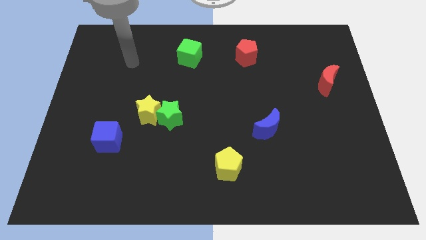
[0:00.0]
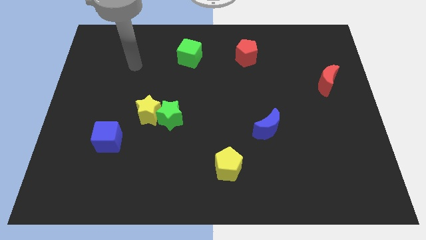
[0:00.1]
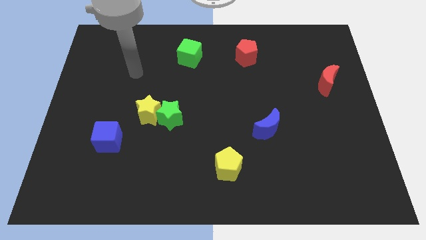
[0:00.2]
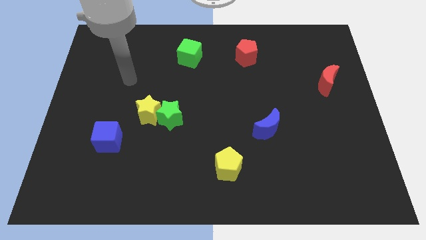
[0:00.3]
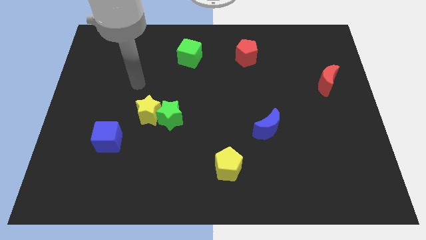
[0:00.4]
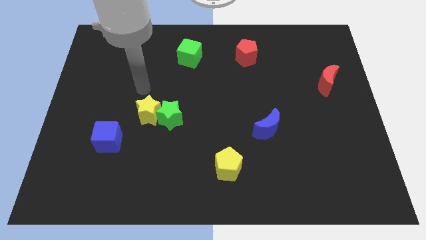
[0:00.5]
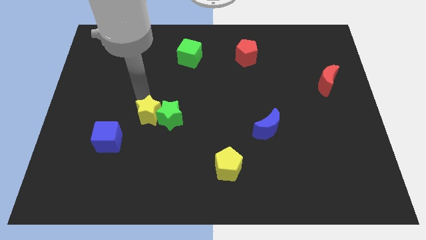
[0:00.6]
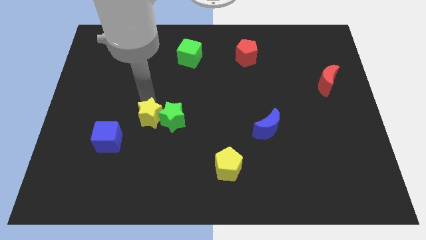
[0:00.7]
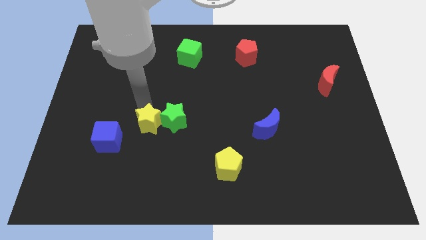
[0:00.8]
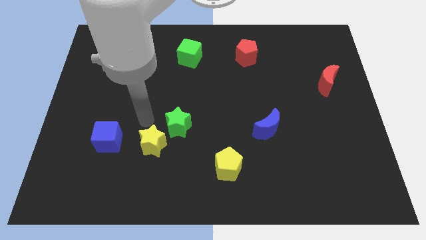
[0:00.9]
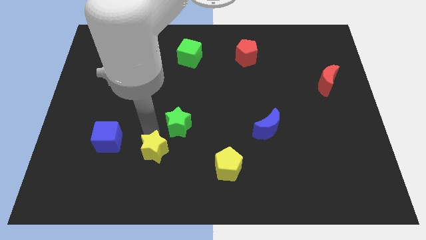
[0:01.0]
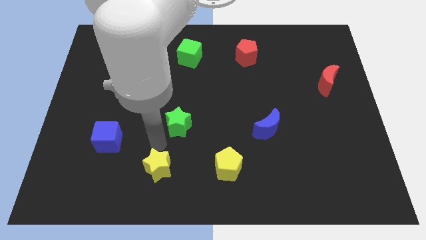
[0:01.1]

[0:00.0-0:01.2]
move the green star away from the yellow star

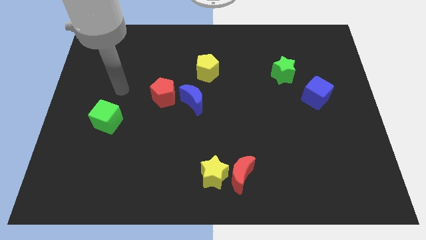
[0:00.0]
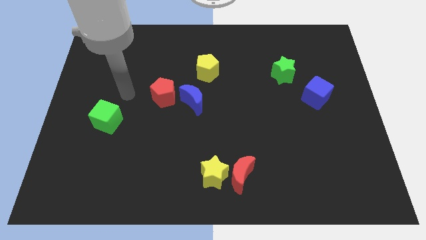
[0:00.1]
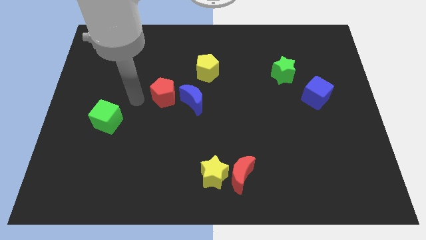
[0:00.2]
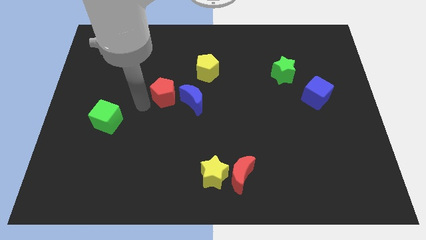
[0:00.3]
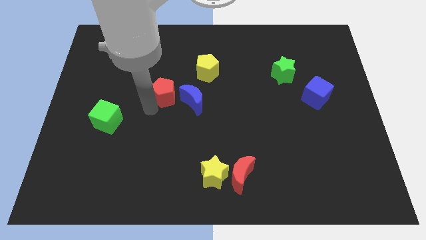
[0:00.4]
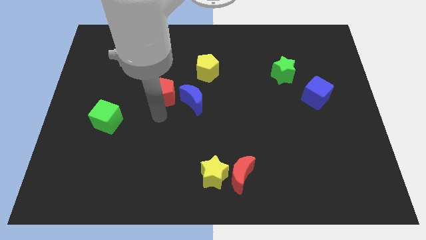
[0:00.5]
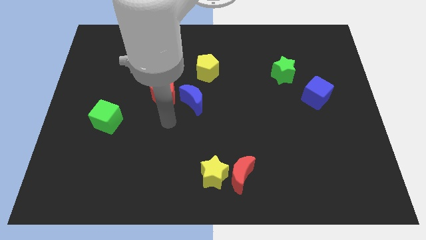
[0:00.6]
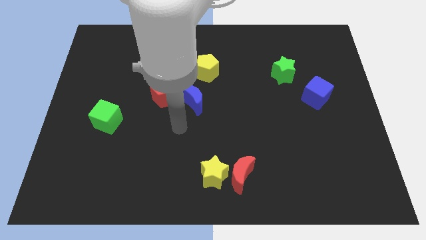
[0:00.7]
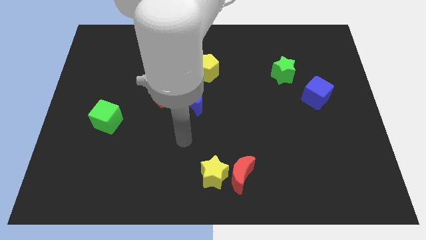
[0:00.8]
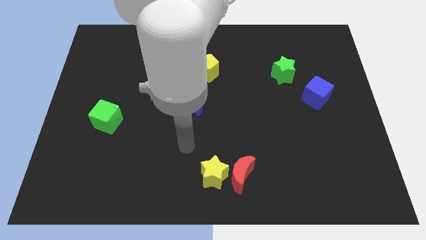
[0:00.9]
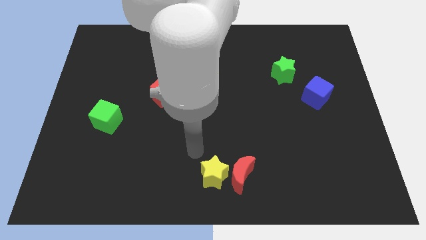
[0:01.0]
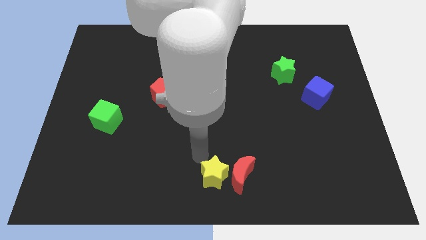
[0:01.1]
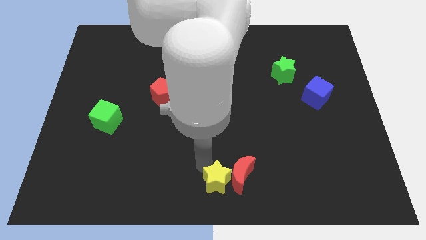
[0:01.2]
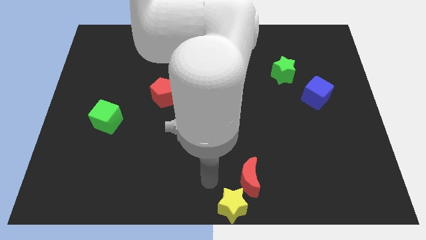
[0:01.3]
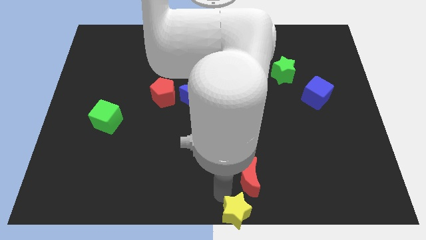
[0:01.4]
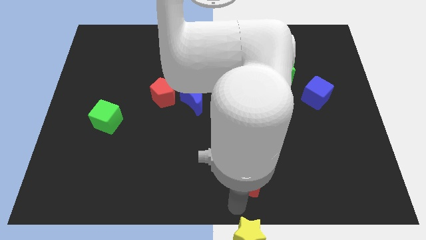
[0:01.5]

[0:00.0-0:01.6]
pull the red moon apart from the yellow star

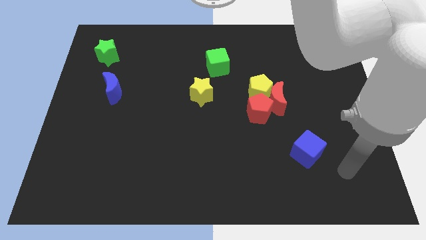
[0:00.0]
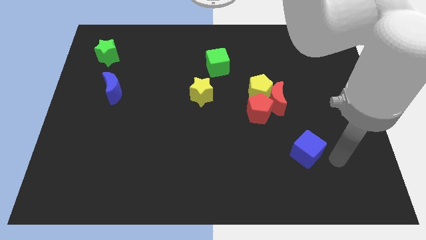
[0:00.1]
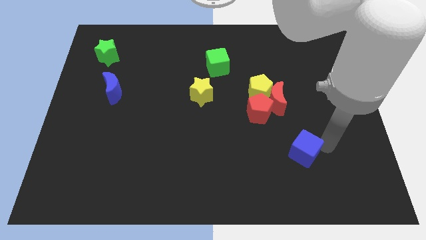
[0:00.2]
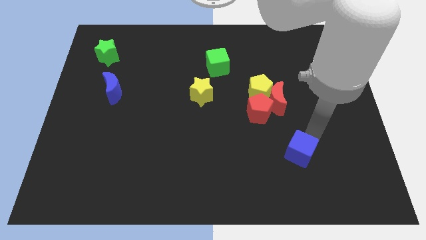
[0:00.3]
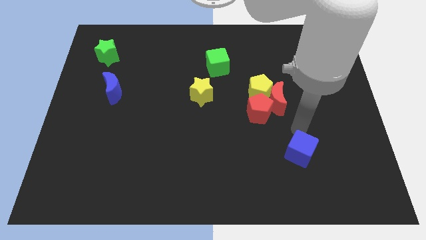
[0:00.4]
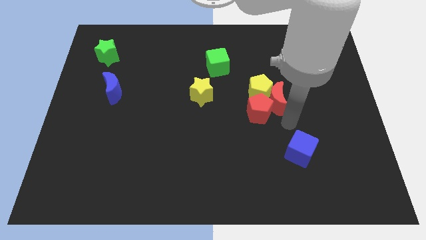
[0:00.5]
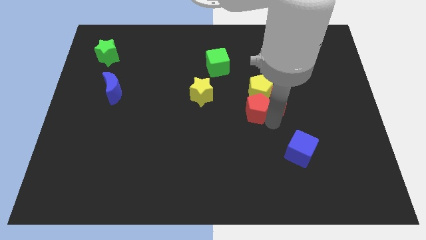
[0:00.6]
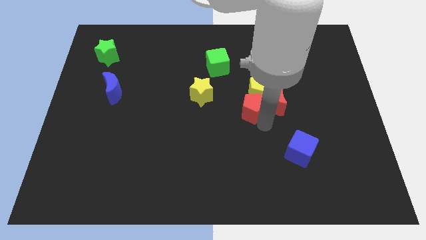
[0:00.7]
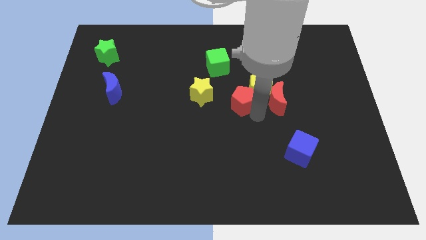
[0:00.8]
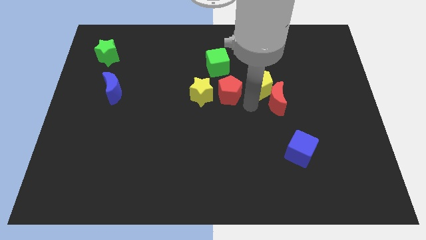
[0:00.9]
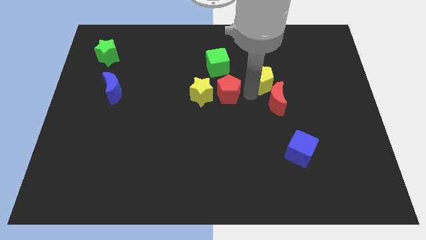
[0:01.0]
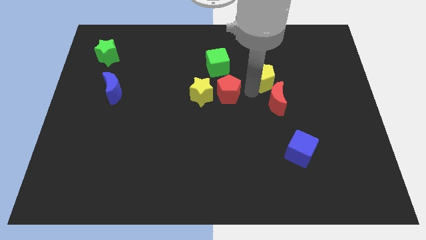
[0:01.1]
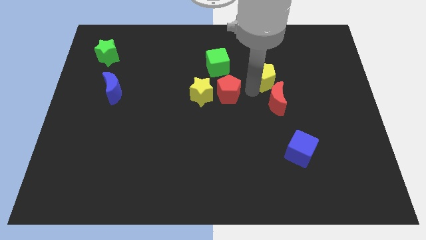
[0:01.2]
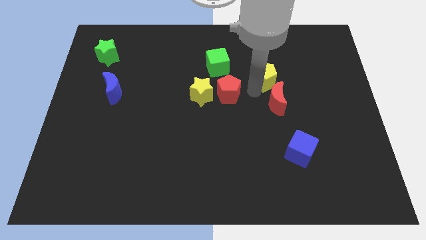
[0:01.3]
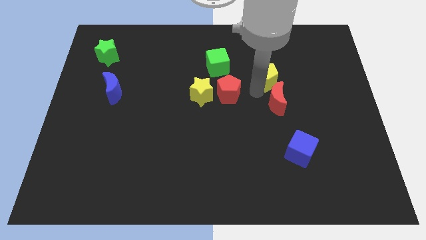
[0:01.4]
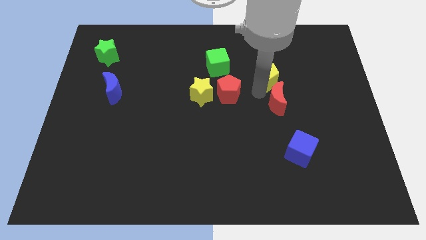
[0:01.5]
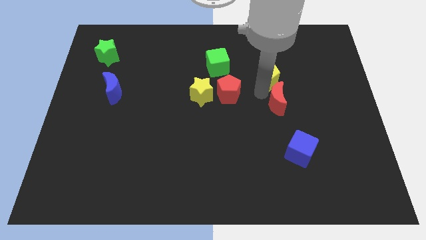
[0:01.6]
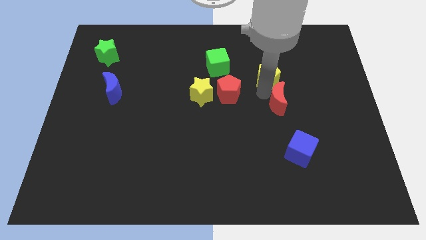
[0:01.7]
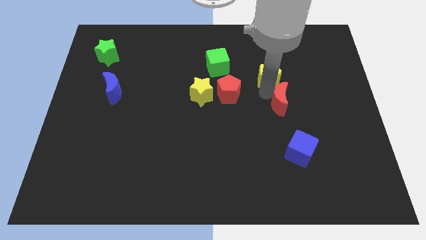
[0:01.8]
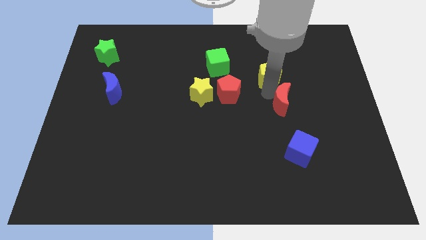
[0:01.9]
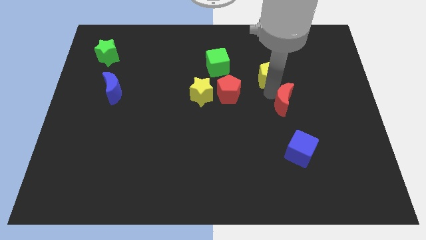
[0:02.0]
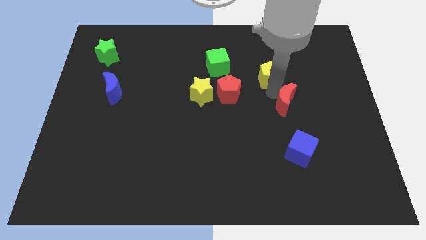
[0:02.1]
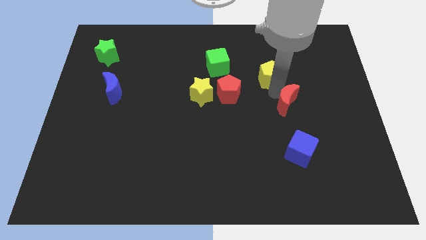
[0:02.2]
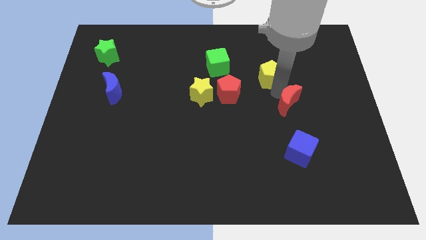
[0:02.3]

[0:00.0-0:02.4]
separate the red moon from the yellow pentagon and red pentagon

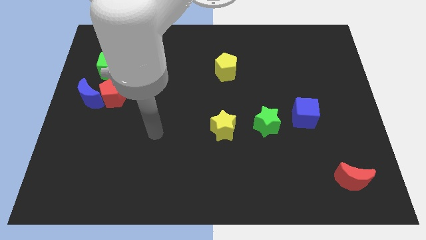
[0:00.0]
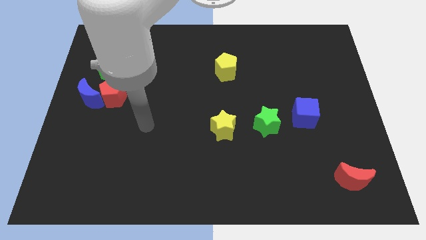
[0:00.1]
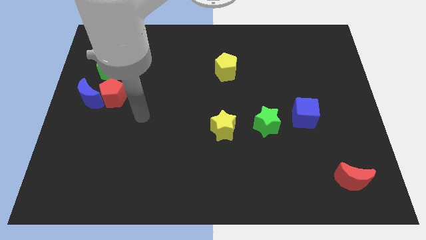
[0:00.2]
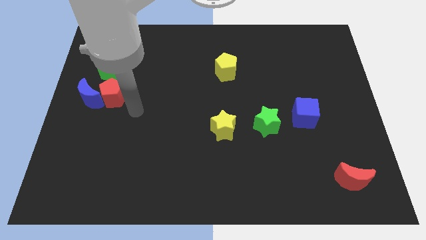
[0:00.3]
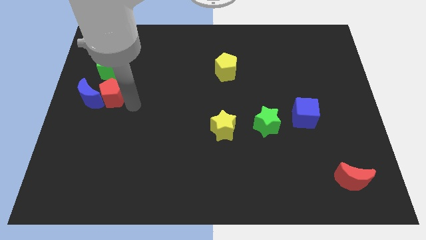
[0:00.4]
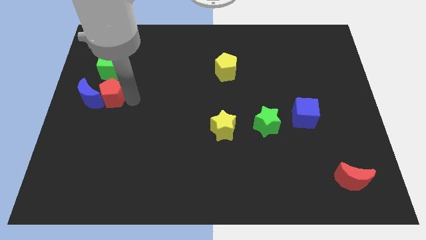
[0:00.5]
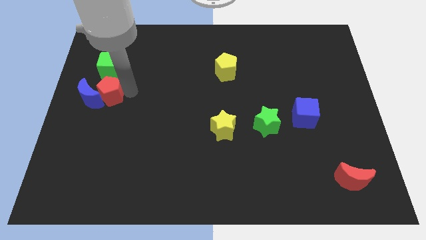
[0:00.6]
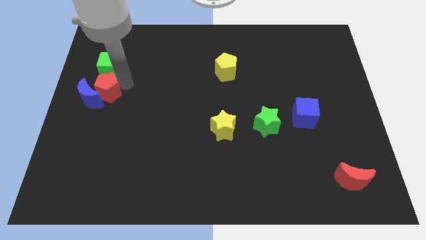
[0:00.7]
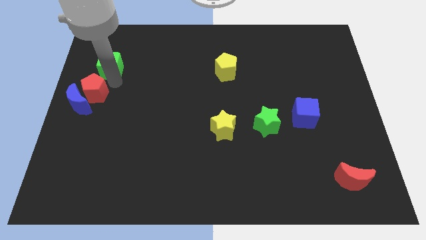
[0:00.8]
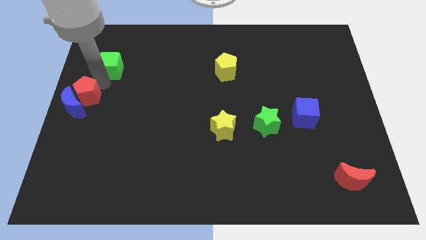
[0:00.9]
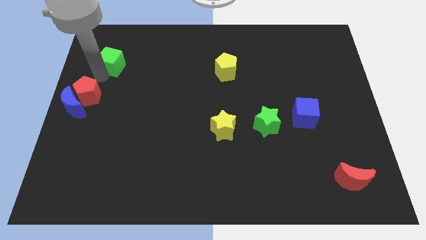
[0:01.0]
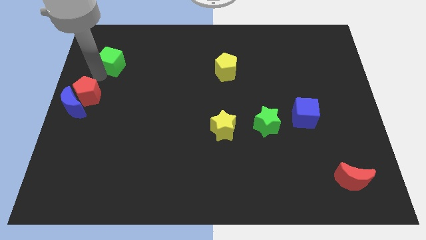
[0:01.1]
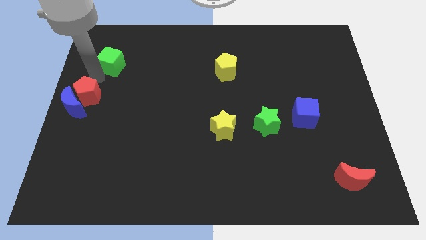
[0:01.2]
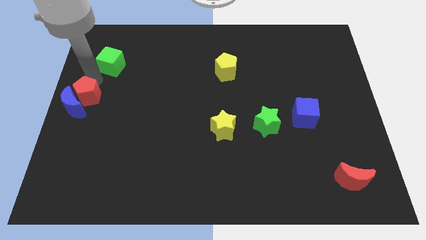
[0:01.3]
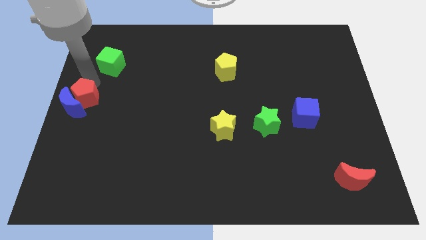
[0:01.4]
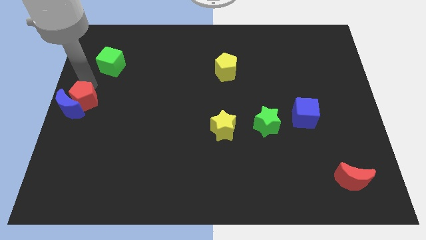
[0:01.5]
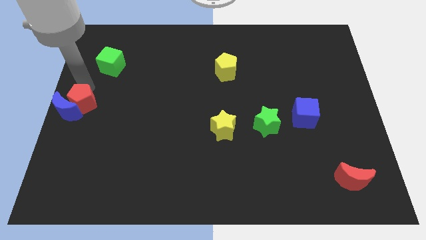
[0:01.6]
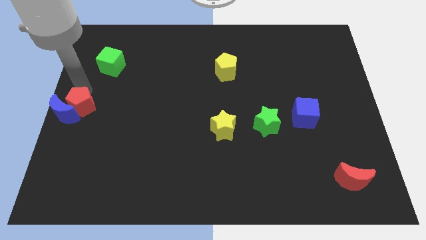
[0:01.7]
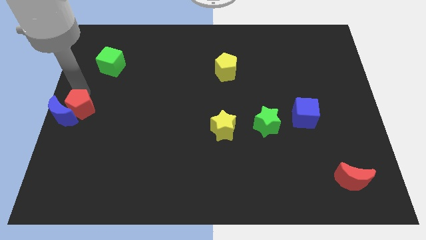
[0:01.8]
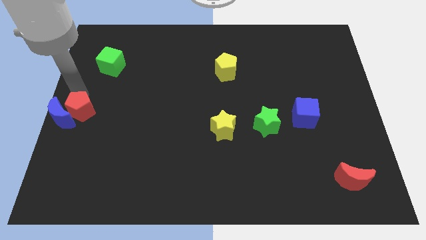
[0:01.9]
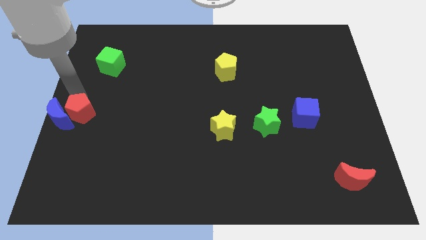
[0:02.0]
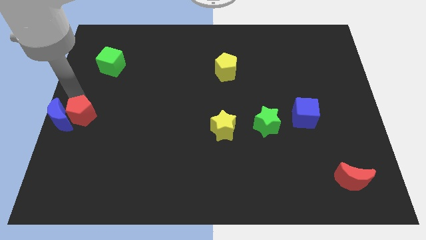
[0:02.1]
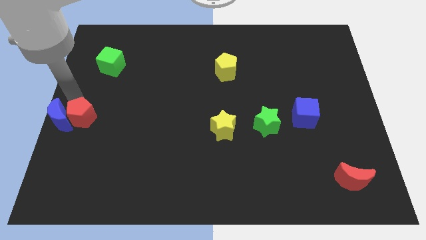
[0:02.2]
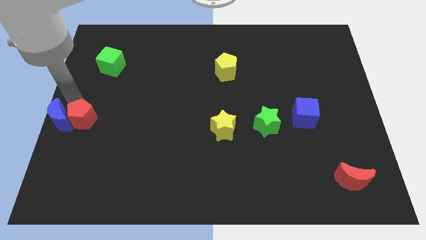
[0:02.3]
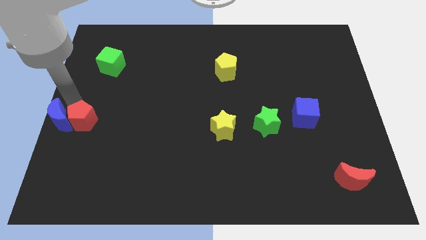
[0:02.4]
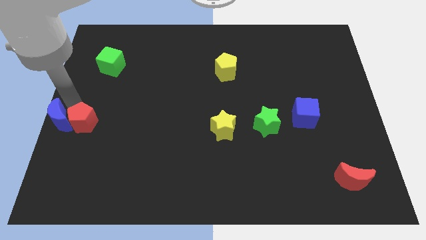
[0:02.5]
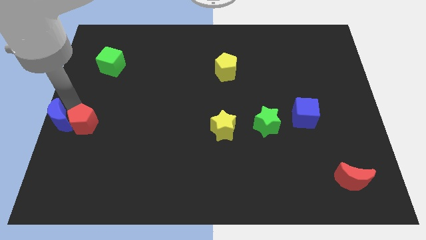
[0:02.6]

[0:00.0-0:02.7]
move the red pentagon away from the blue moon and green cube

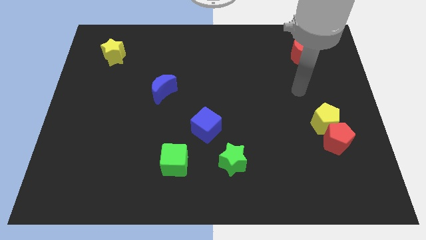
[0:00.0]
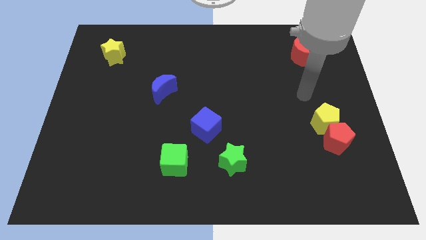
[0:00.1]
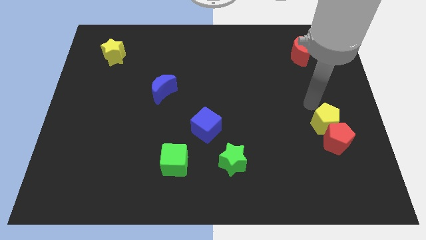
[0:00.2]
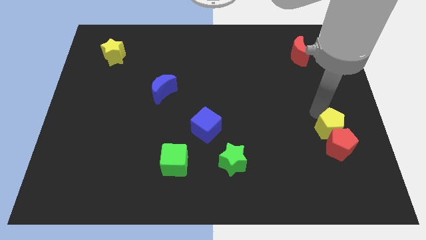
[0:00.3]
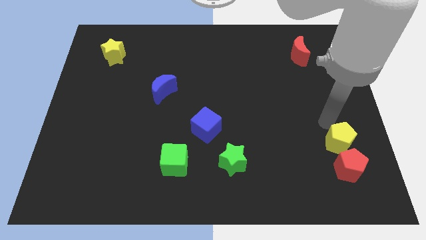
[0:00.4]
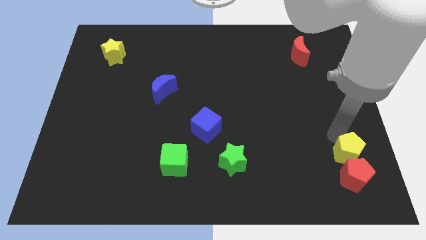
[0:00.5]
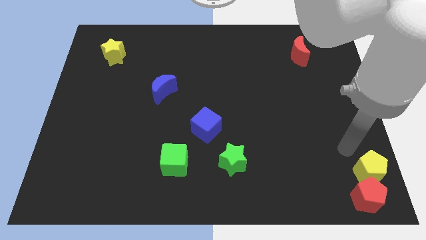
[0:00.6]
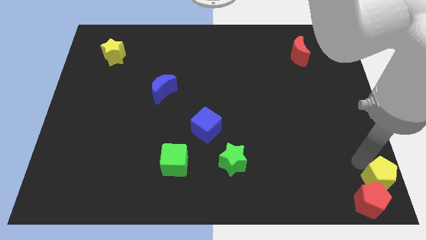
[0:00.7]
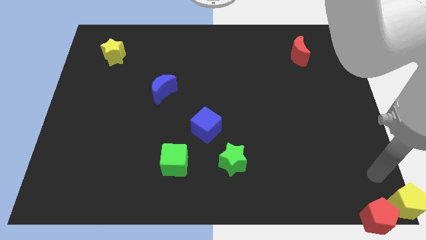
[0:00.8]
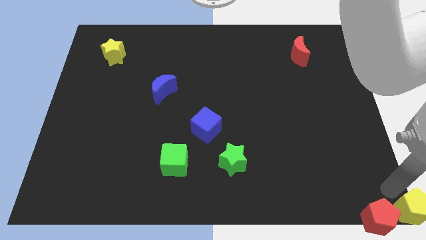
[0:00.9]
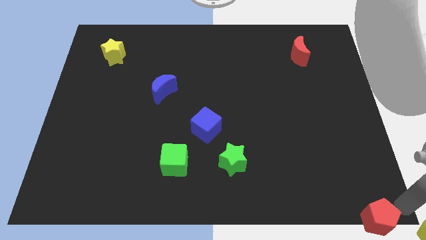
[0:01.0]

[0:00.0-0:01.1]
move the red pentagon away from the yellow pentagon

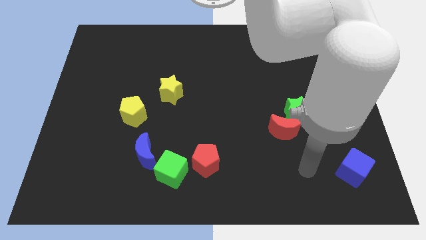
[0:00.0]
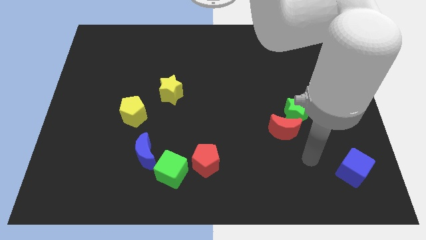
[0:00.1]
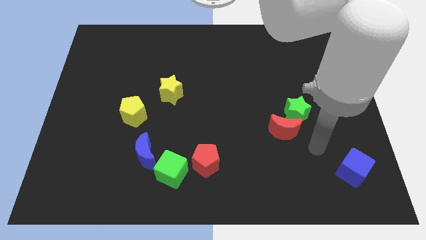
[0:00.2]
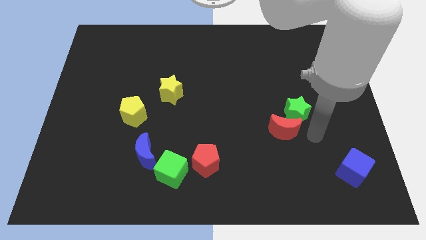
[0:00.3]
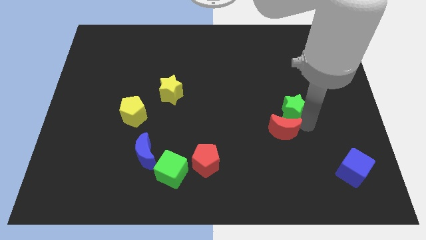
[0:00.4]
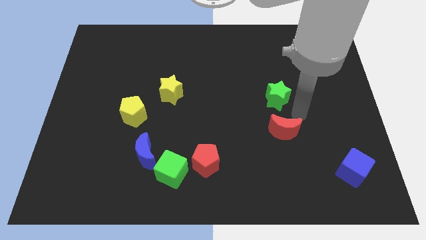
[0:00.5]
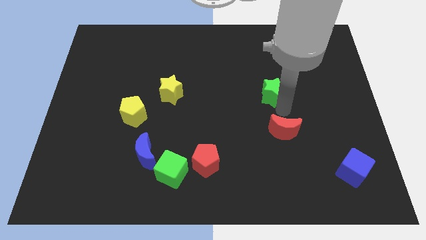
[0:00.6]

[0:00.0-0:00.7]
move the red moon away from the green star
